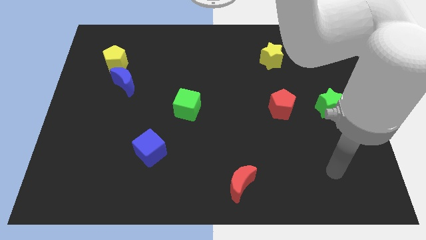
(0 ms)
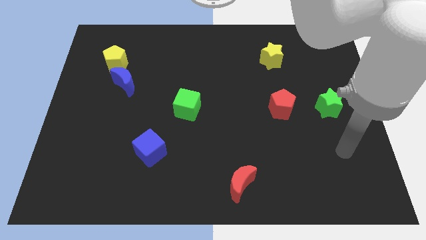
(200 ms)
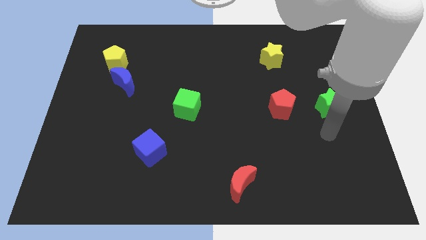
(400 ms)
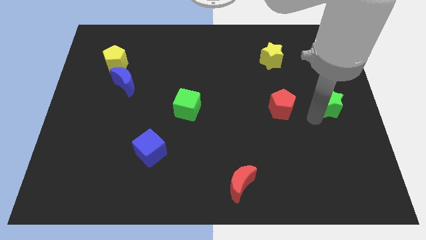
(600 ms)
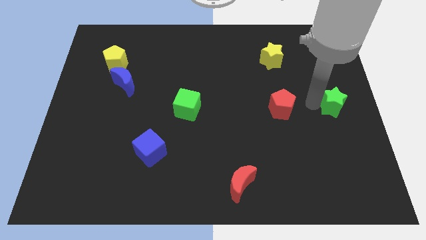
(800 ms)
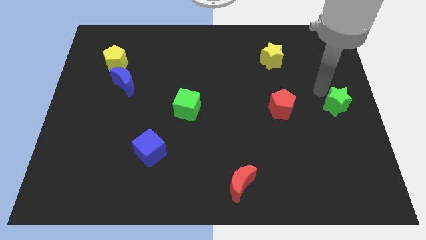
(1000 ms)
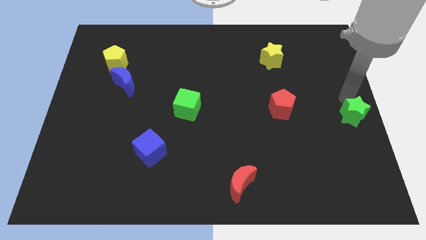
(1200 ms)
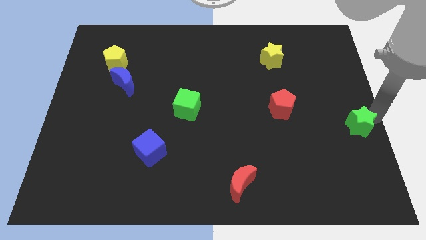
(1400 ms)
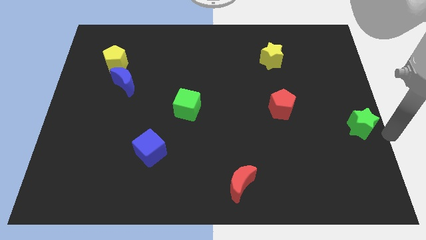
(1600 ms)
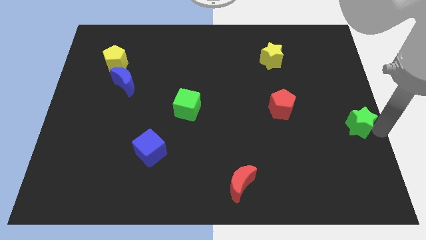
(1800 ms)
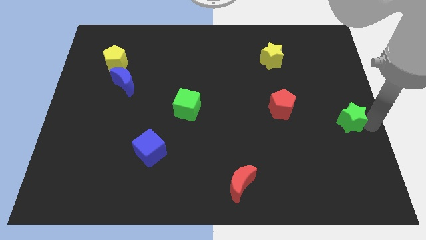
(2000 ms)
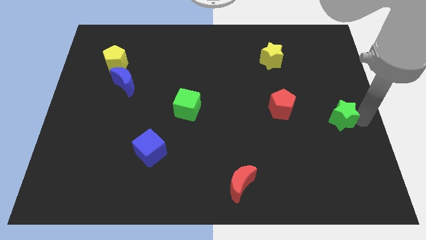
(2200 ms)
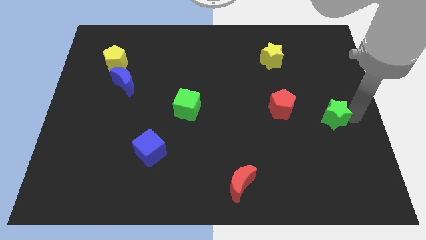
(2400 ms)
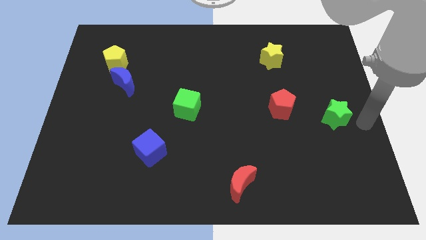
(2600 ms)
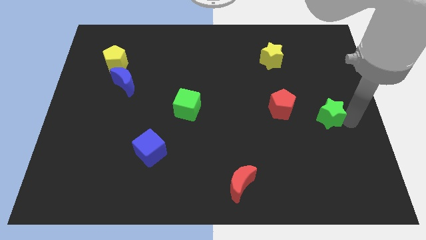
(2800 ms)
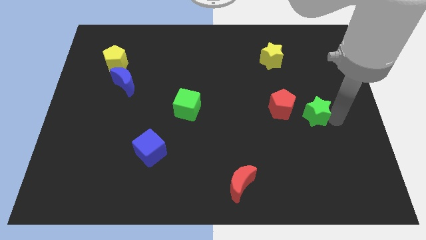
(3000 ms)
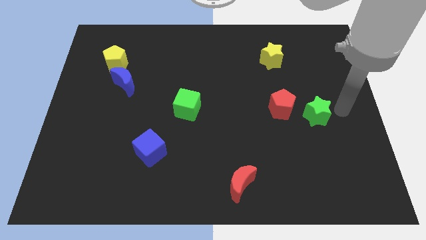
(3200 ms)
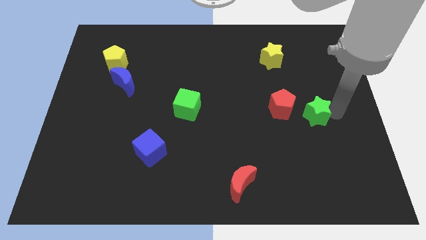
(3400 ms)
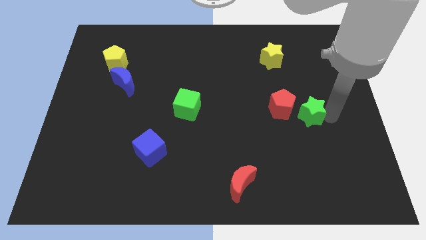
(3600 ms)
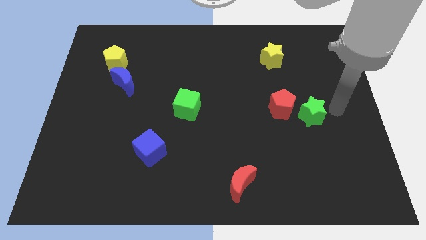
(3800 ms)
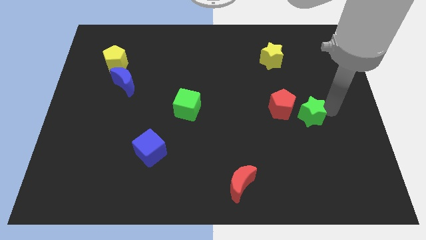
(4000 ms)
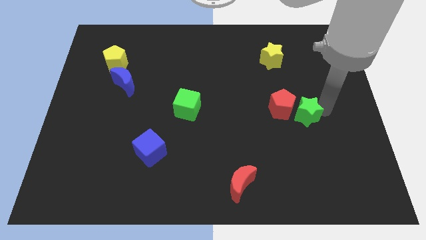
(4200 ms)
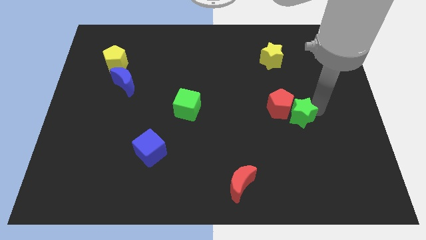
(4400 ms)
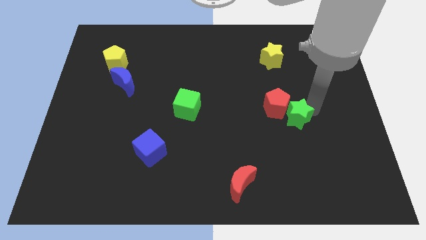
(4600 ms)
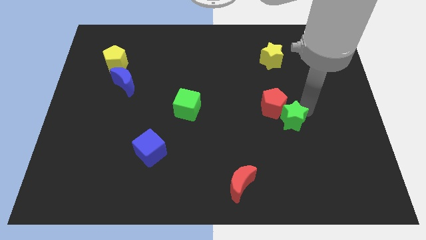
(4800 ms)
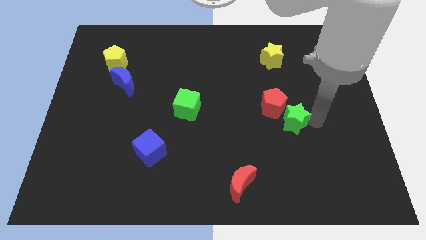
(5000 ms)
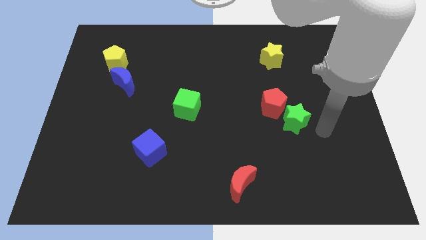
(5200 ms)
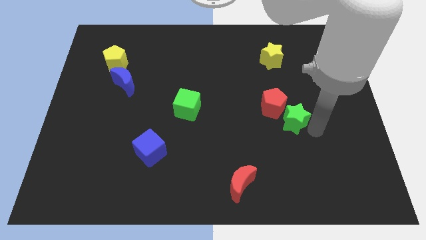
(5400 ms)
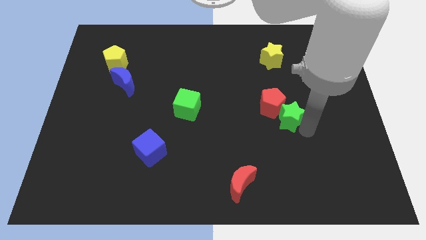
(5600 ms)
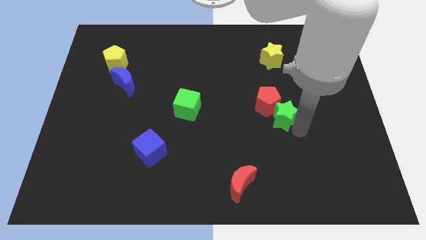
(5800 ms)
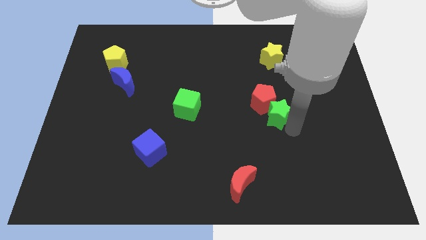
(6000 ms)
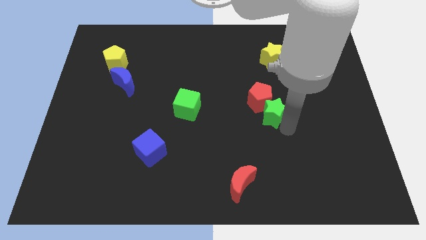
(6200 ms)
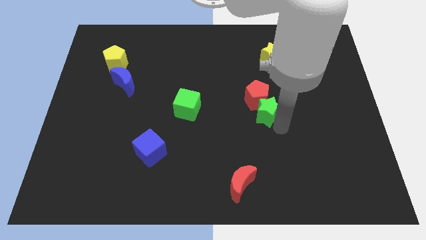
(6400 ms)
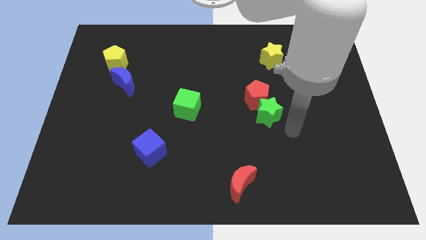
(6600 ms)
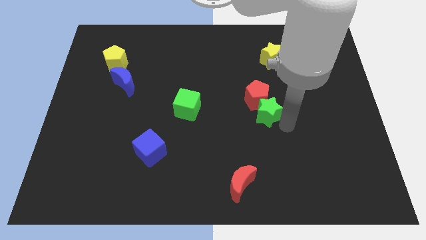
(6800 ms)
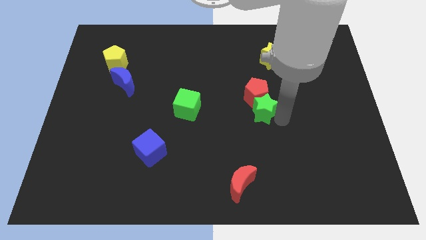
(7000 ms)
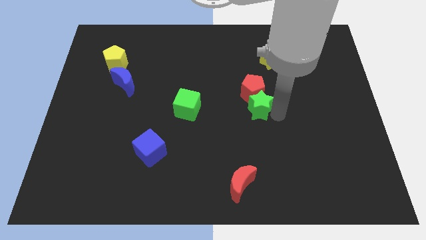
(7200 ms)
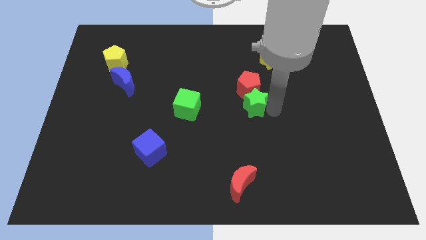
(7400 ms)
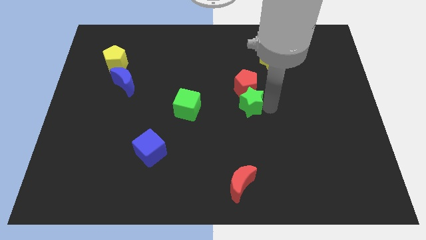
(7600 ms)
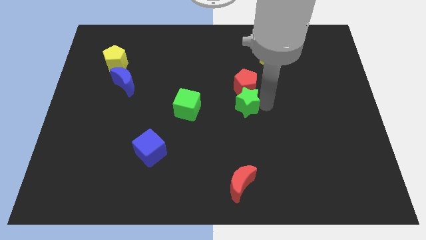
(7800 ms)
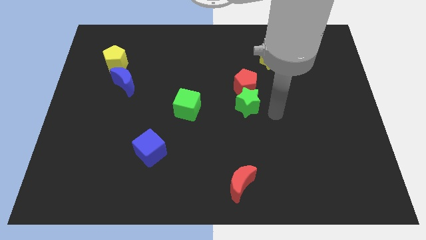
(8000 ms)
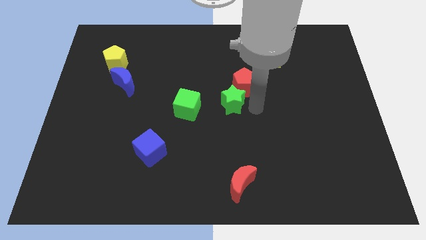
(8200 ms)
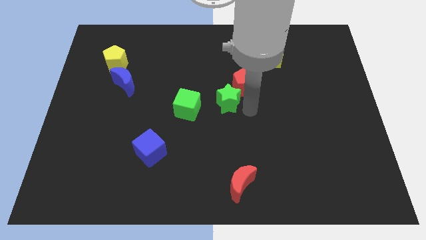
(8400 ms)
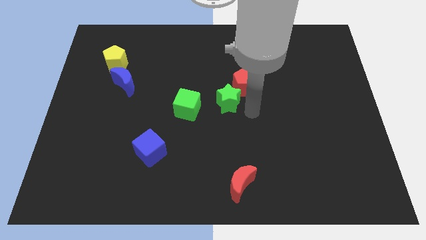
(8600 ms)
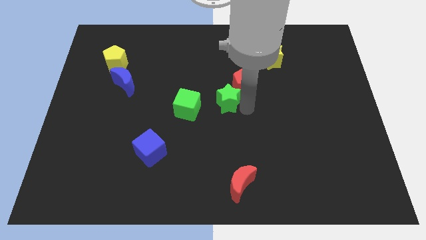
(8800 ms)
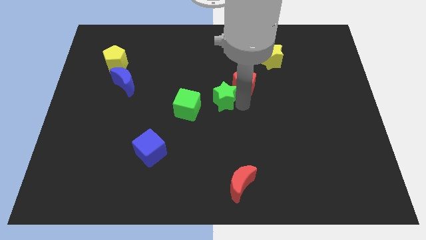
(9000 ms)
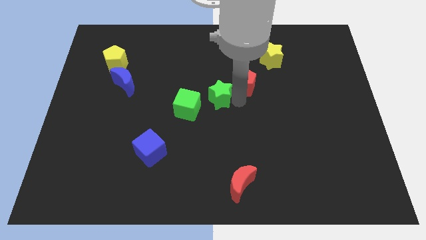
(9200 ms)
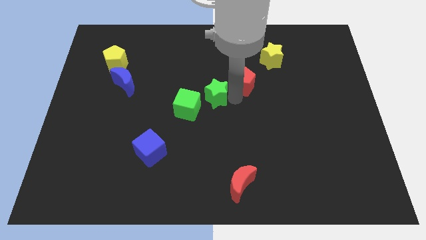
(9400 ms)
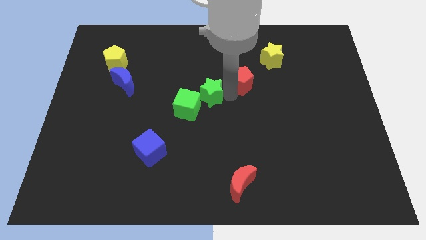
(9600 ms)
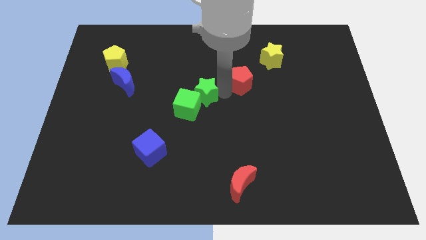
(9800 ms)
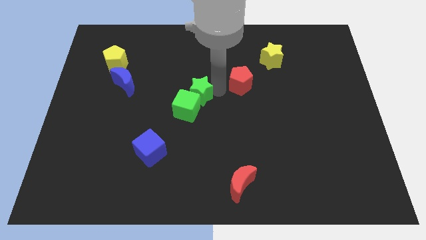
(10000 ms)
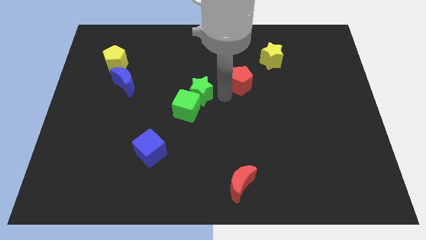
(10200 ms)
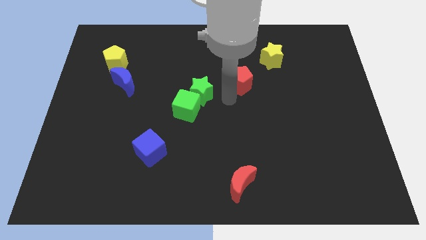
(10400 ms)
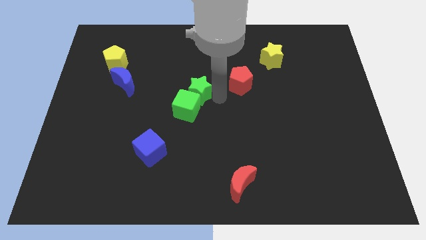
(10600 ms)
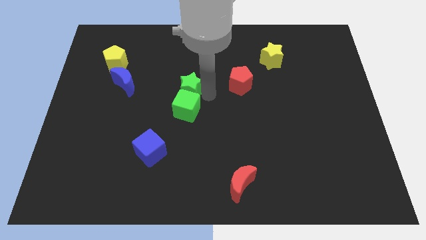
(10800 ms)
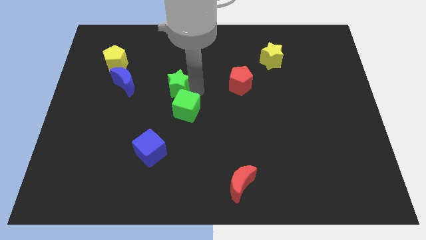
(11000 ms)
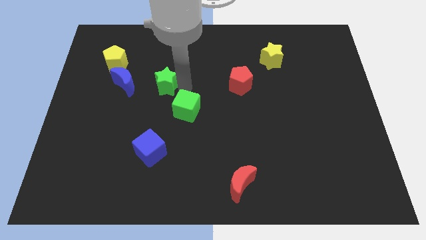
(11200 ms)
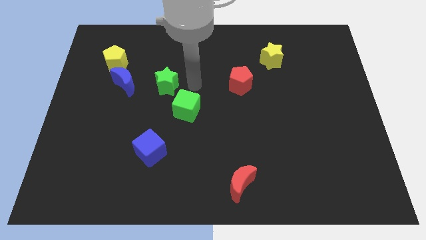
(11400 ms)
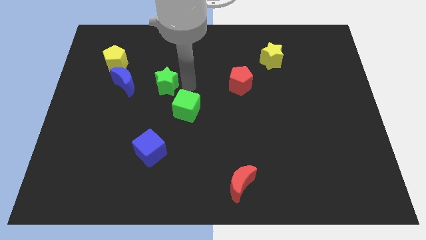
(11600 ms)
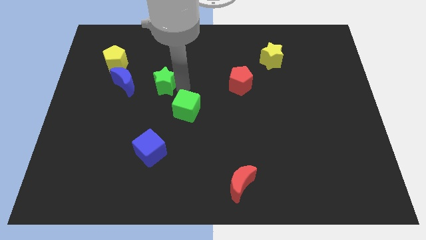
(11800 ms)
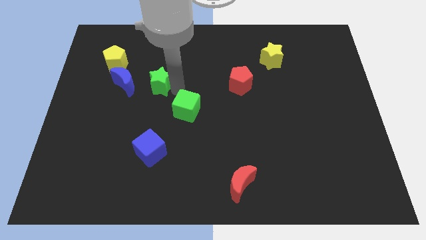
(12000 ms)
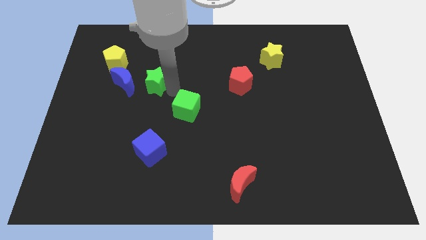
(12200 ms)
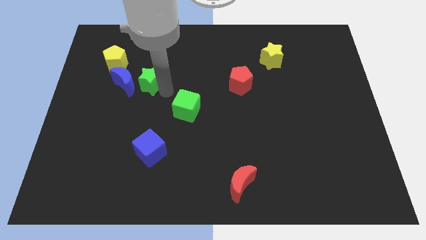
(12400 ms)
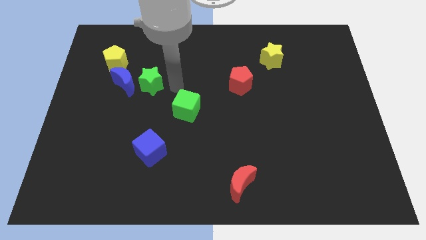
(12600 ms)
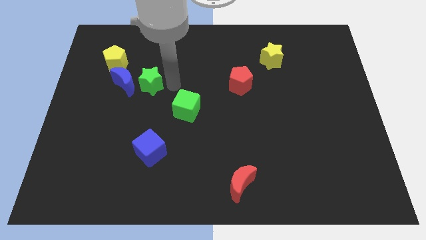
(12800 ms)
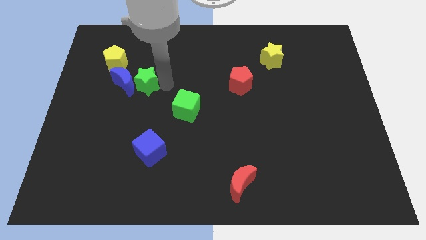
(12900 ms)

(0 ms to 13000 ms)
slide the green star towards the blue moon
